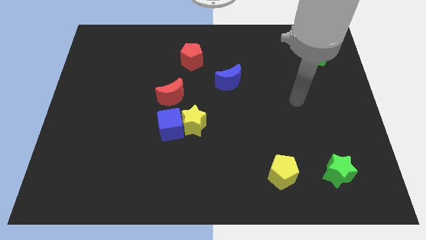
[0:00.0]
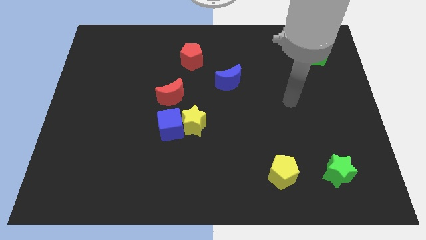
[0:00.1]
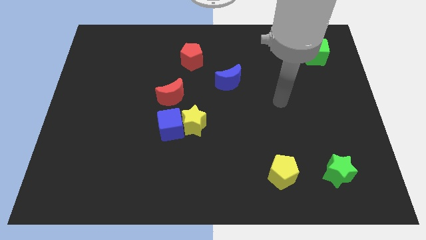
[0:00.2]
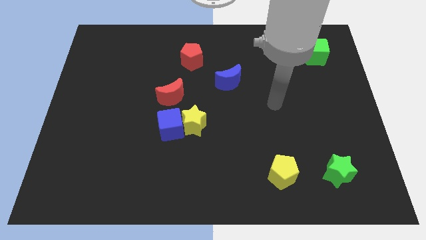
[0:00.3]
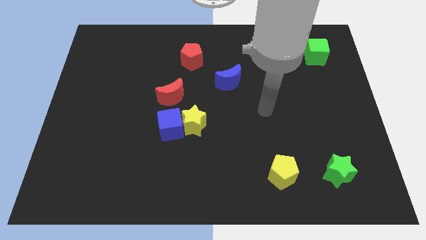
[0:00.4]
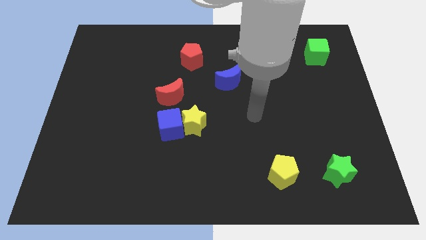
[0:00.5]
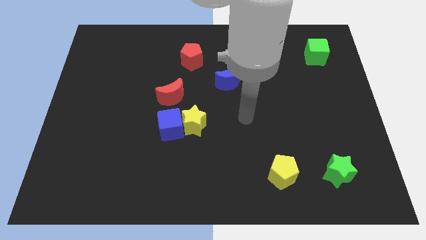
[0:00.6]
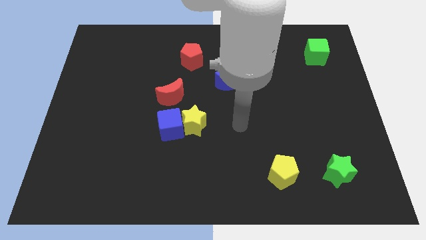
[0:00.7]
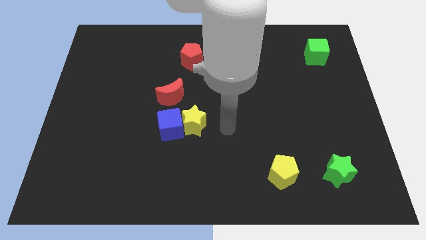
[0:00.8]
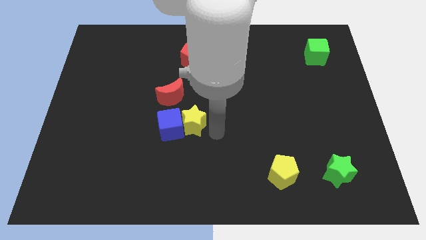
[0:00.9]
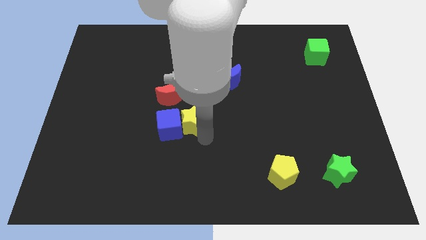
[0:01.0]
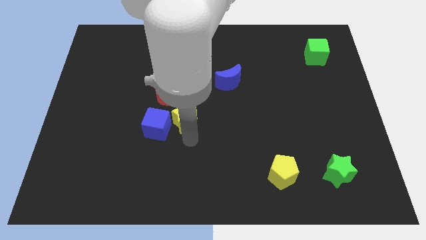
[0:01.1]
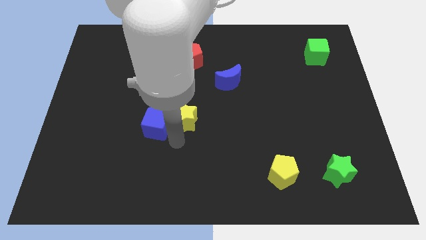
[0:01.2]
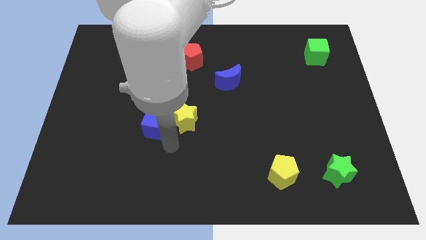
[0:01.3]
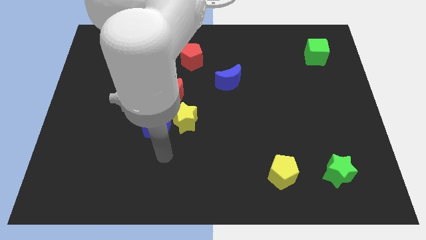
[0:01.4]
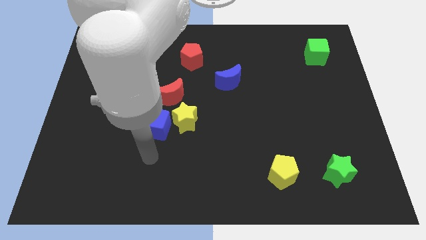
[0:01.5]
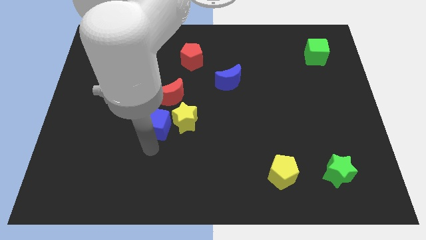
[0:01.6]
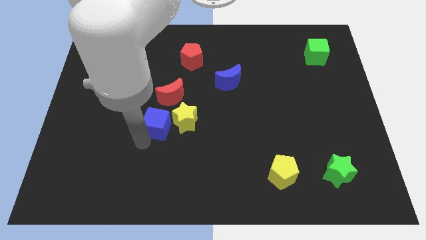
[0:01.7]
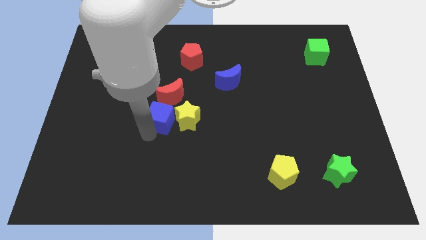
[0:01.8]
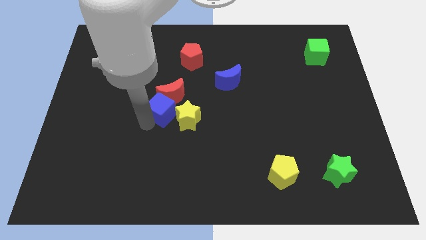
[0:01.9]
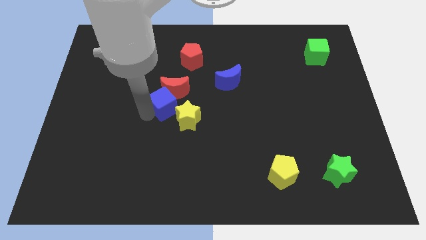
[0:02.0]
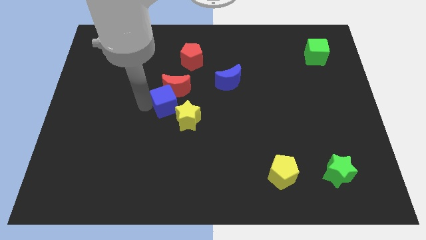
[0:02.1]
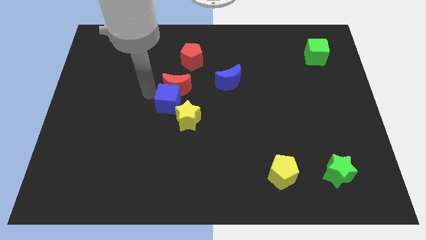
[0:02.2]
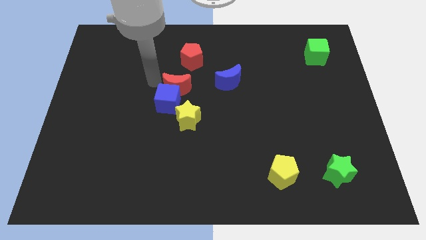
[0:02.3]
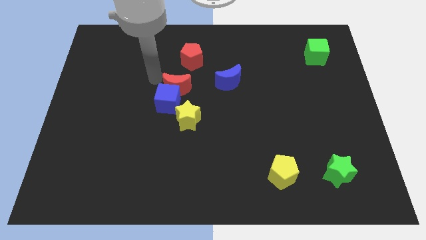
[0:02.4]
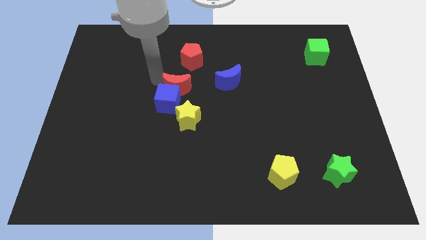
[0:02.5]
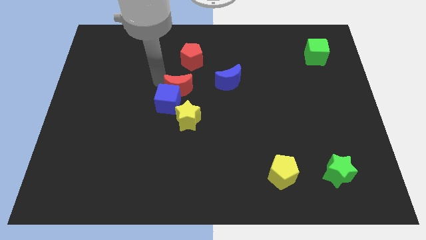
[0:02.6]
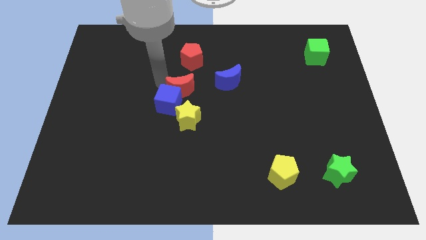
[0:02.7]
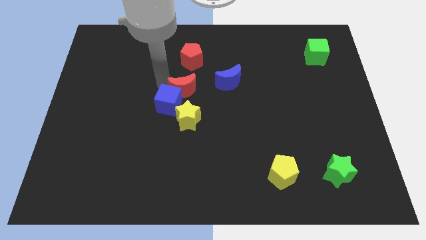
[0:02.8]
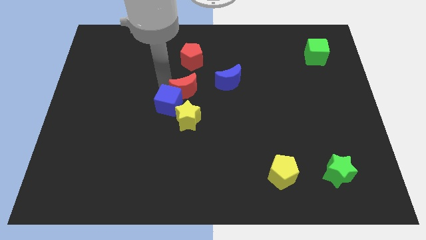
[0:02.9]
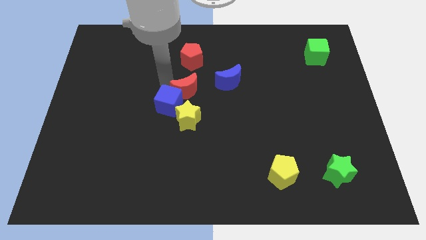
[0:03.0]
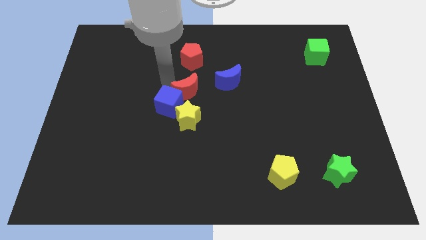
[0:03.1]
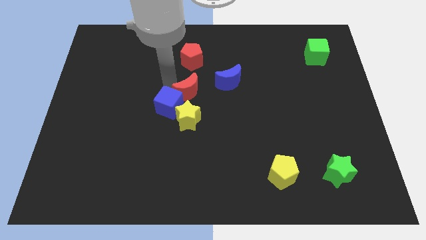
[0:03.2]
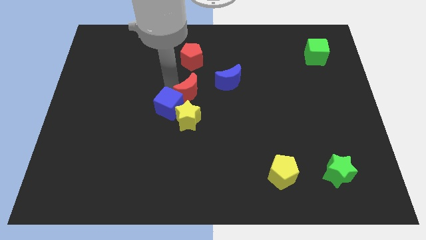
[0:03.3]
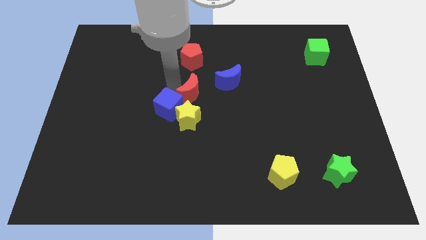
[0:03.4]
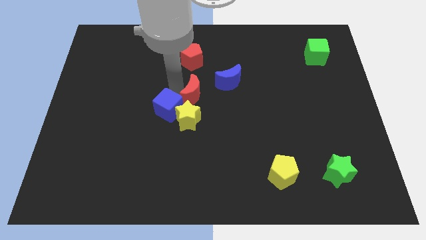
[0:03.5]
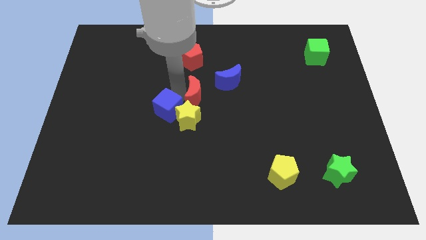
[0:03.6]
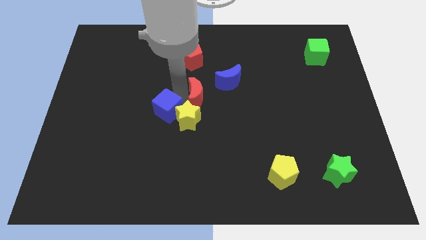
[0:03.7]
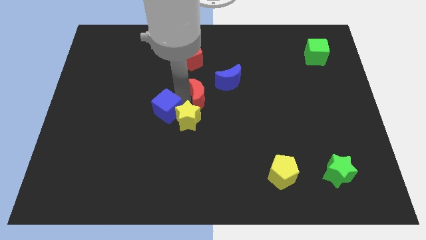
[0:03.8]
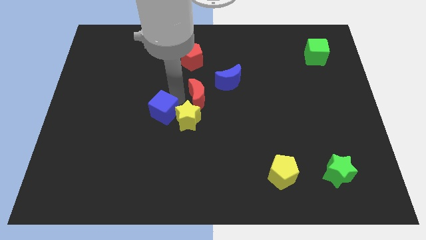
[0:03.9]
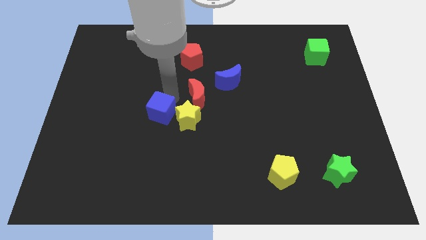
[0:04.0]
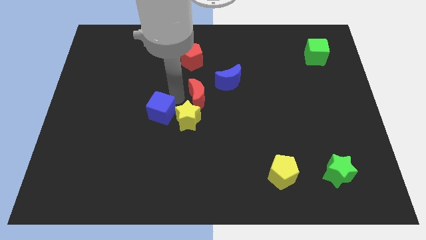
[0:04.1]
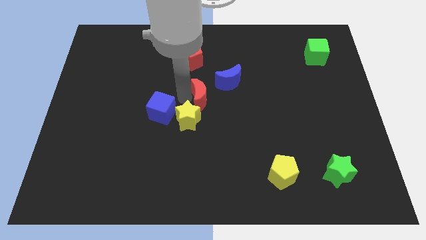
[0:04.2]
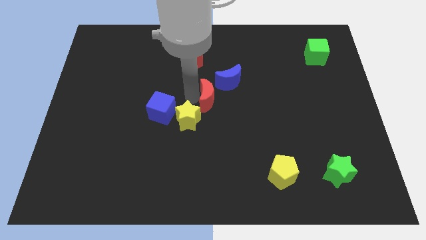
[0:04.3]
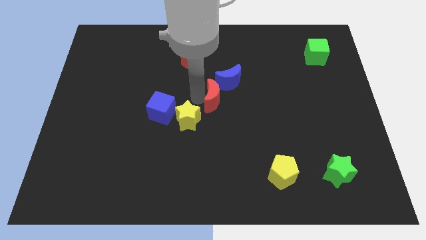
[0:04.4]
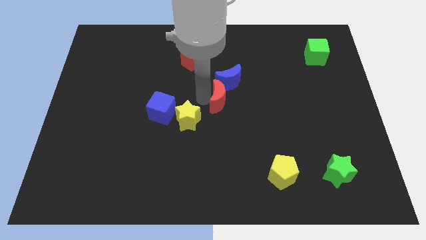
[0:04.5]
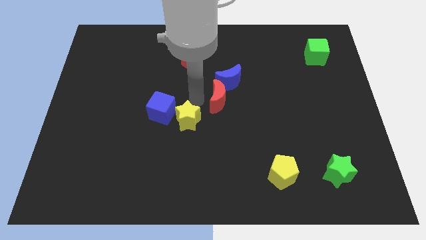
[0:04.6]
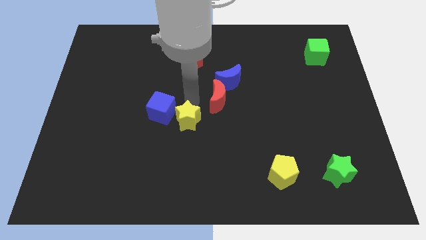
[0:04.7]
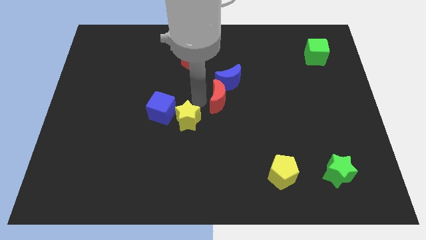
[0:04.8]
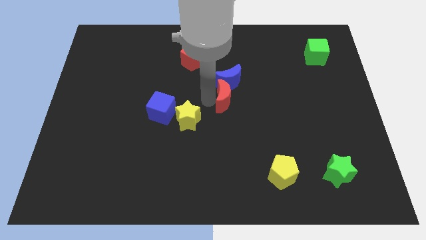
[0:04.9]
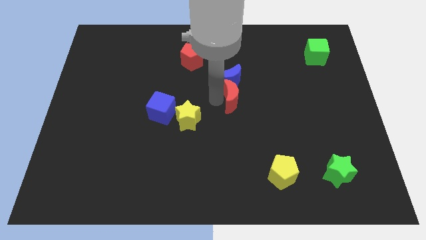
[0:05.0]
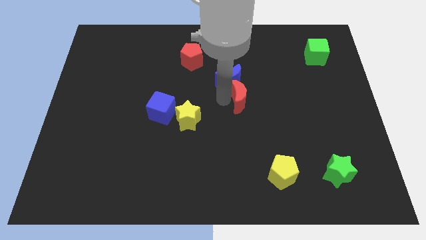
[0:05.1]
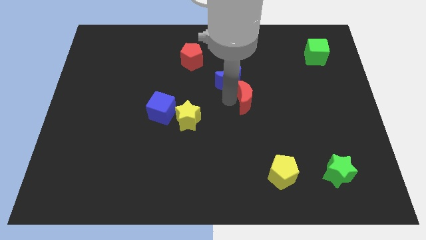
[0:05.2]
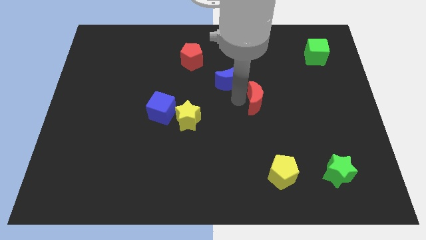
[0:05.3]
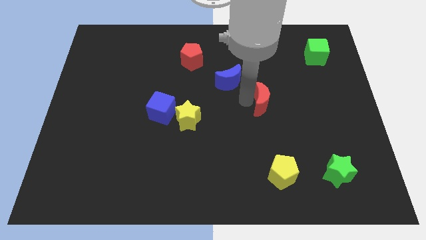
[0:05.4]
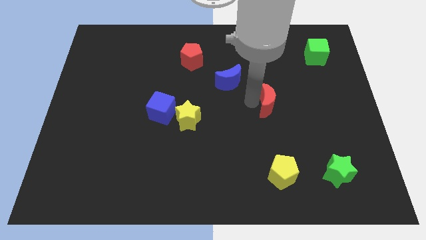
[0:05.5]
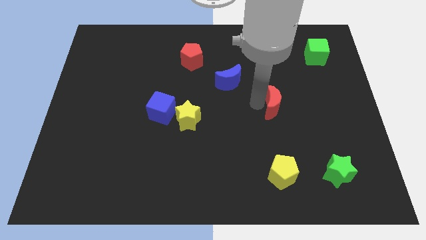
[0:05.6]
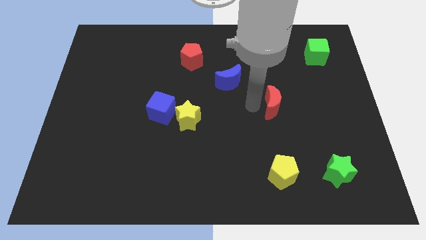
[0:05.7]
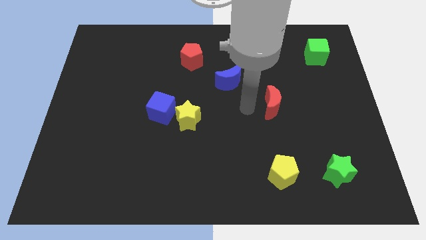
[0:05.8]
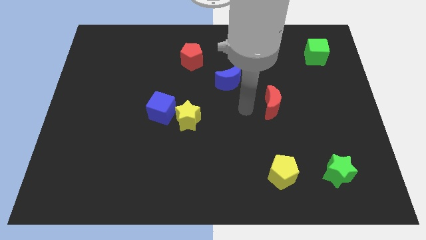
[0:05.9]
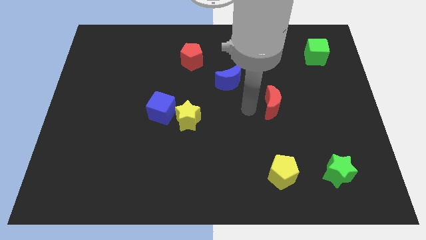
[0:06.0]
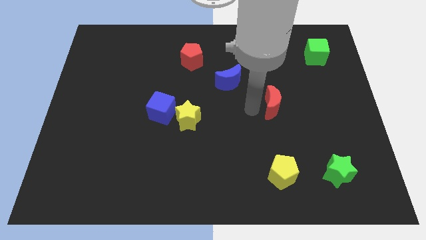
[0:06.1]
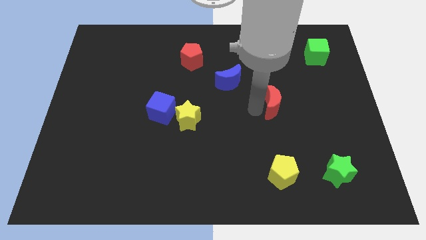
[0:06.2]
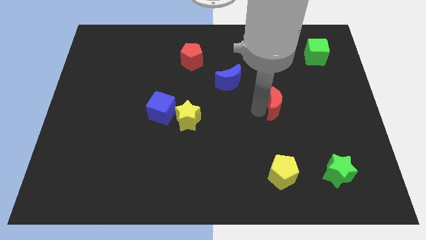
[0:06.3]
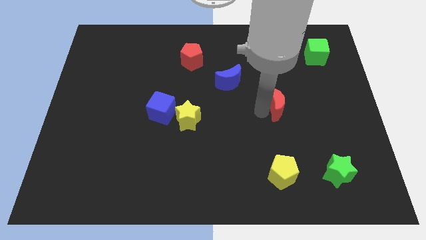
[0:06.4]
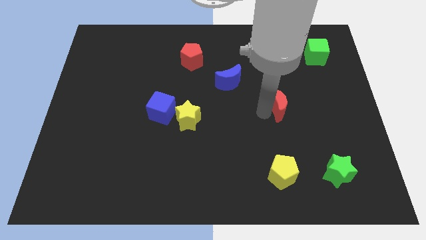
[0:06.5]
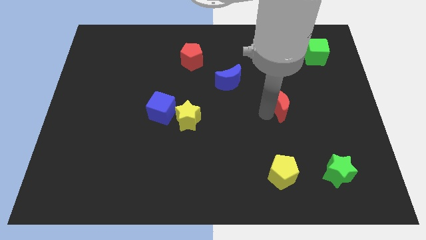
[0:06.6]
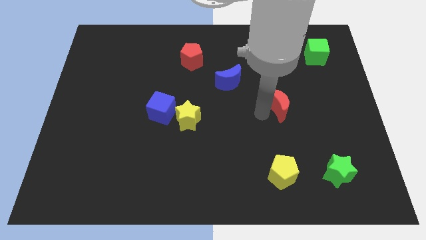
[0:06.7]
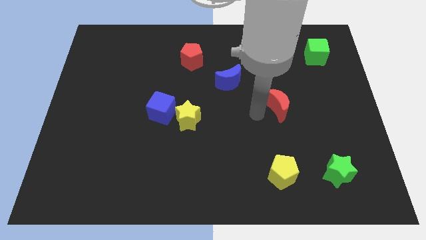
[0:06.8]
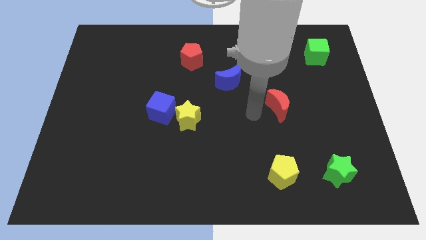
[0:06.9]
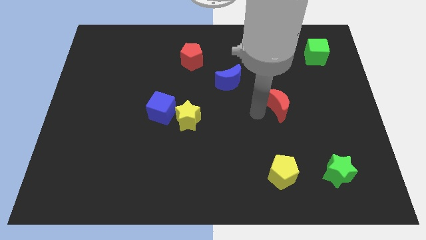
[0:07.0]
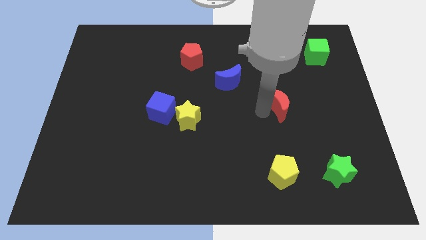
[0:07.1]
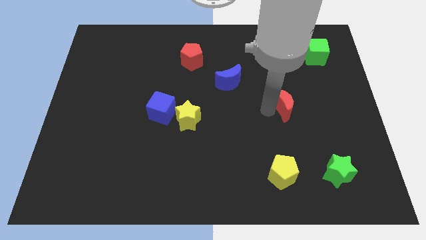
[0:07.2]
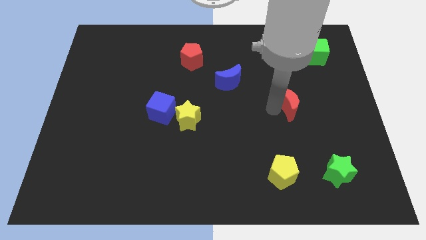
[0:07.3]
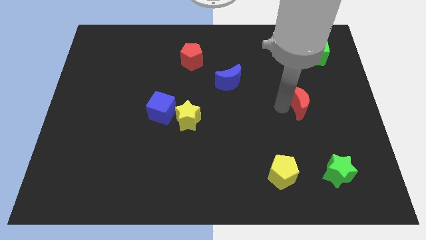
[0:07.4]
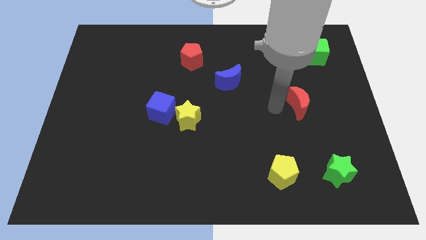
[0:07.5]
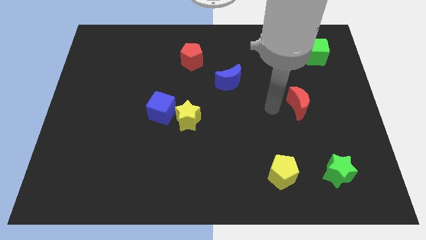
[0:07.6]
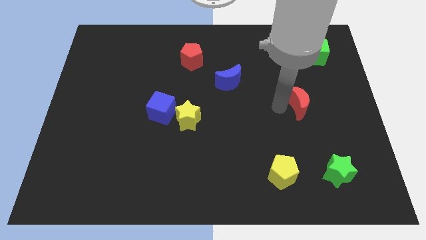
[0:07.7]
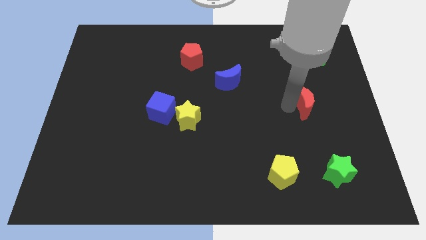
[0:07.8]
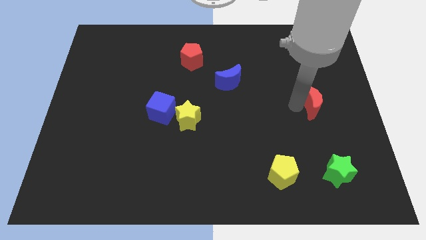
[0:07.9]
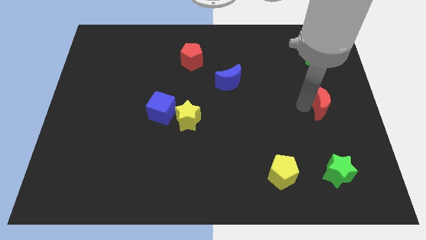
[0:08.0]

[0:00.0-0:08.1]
slide the red moon to the right side
